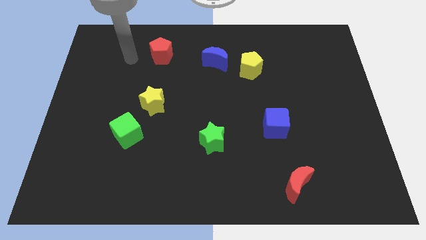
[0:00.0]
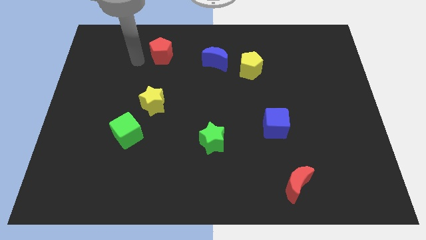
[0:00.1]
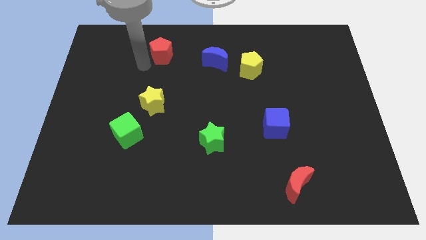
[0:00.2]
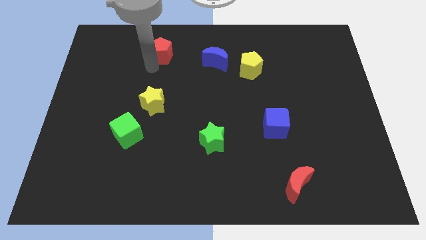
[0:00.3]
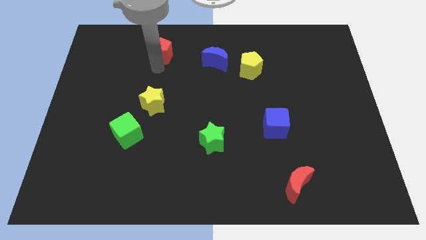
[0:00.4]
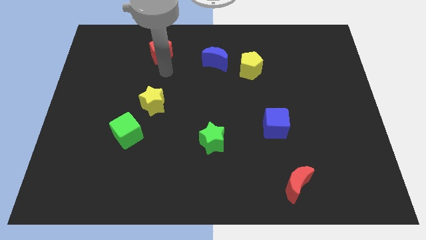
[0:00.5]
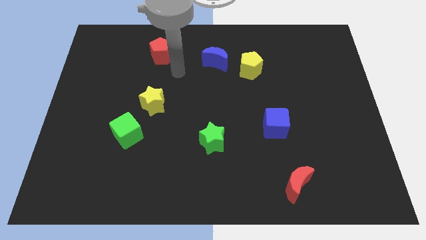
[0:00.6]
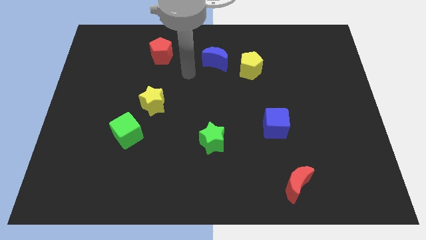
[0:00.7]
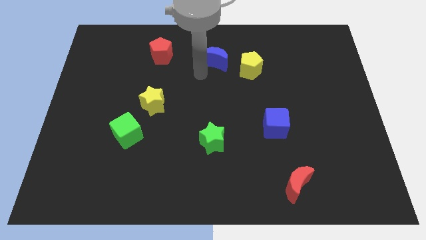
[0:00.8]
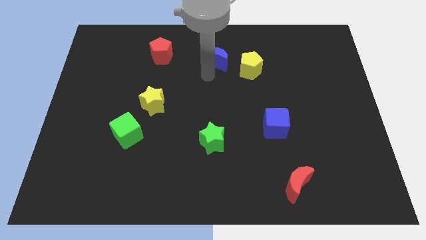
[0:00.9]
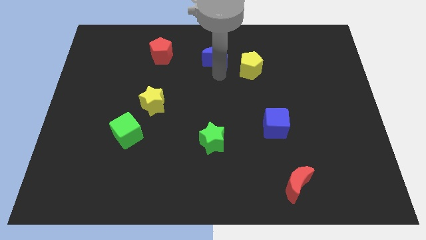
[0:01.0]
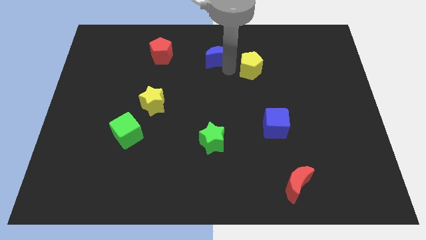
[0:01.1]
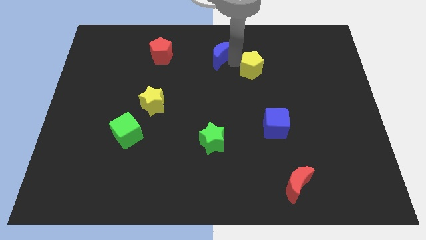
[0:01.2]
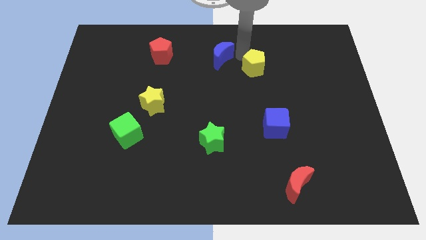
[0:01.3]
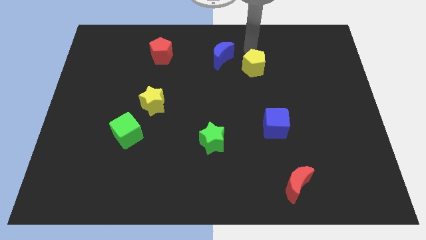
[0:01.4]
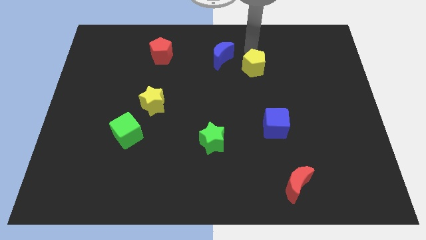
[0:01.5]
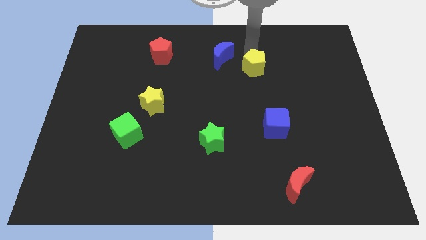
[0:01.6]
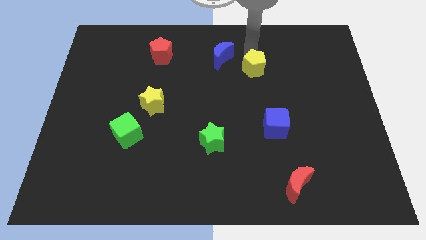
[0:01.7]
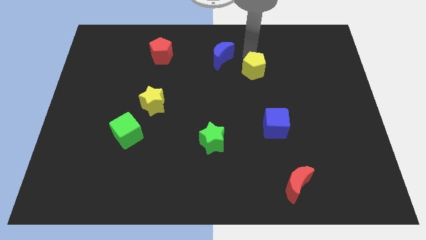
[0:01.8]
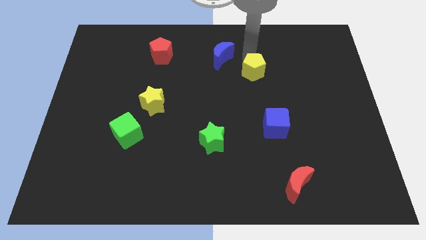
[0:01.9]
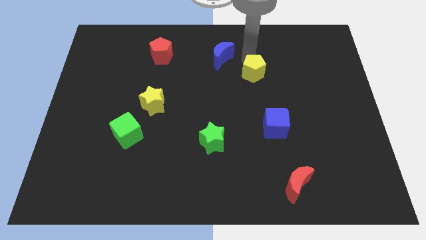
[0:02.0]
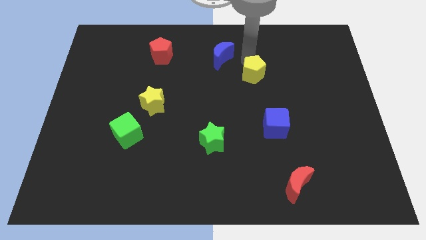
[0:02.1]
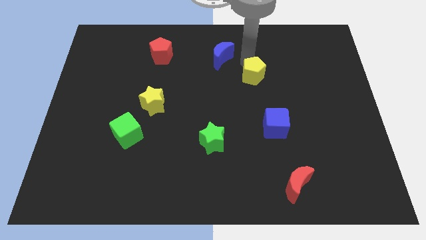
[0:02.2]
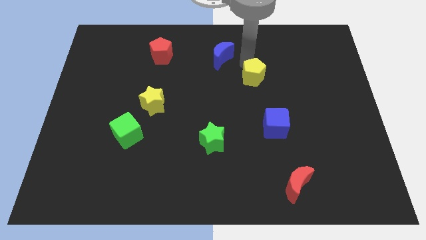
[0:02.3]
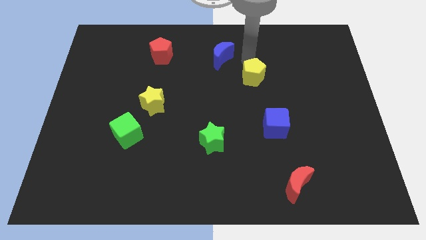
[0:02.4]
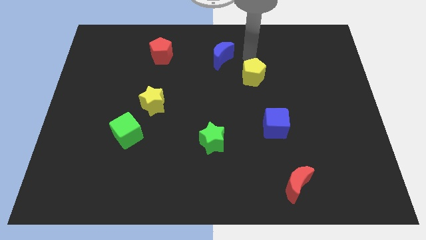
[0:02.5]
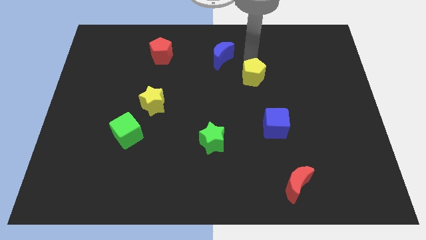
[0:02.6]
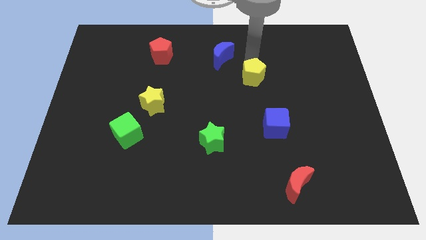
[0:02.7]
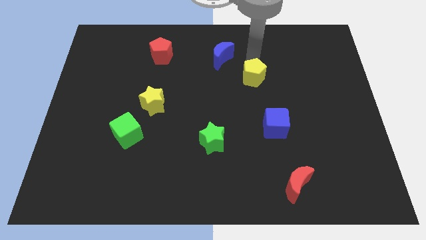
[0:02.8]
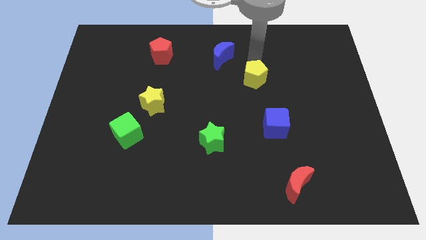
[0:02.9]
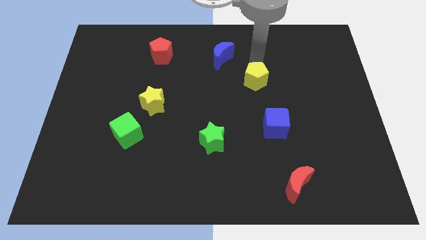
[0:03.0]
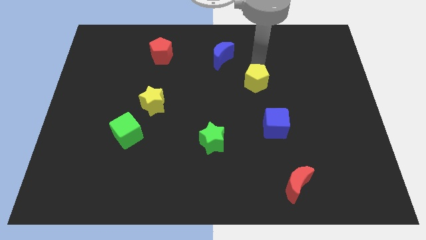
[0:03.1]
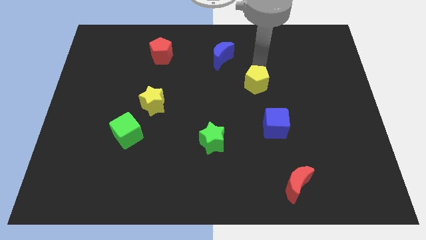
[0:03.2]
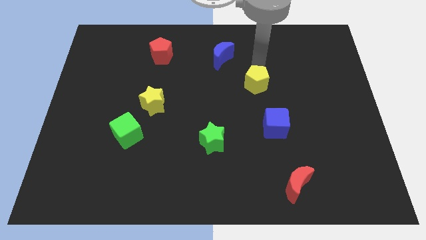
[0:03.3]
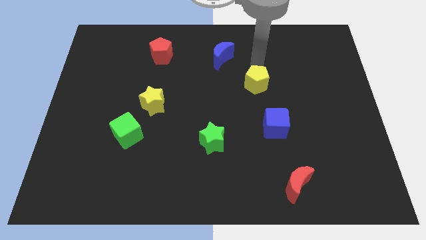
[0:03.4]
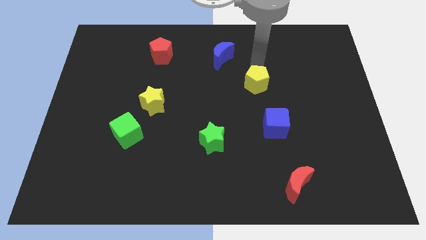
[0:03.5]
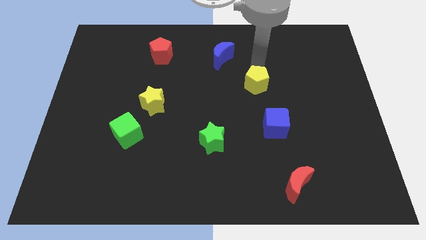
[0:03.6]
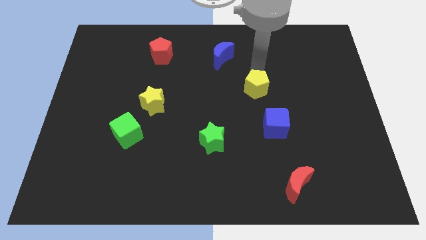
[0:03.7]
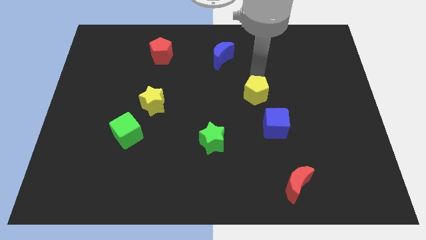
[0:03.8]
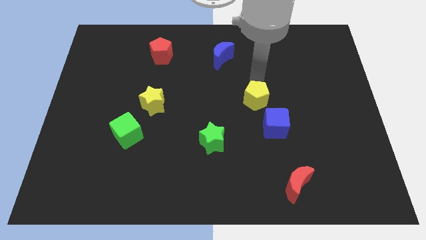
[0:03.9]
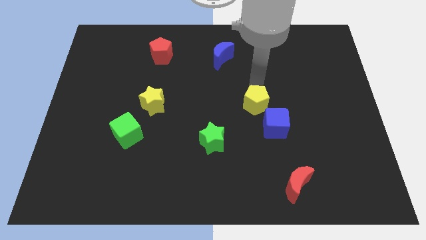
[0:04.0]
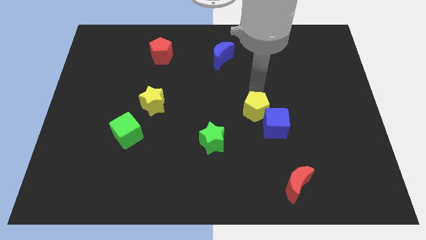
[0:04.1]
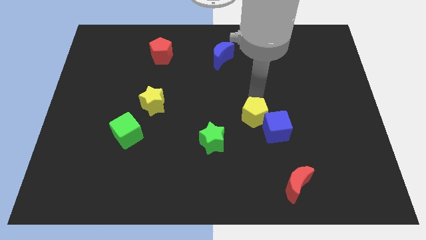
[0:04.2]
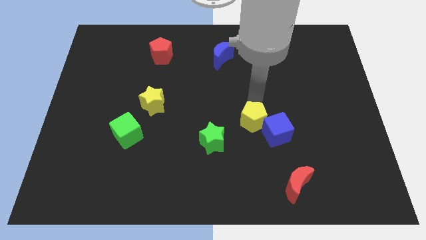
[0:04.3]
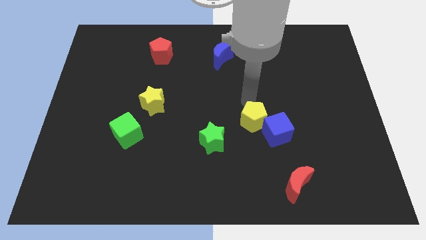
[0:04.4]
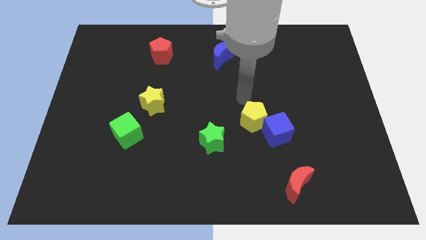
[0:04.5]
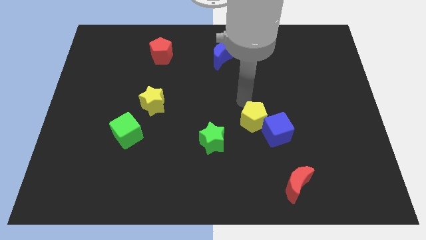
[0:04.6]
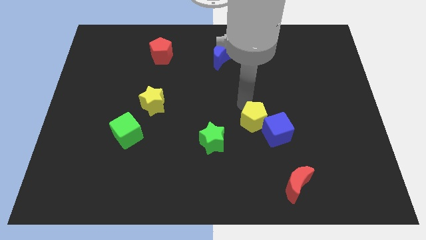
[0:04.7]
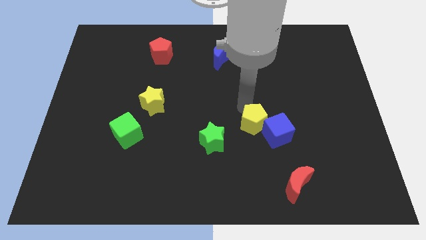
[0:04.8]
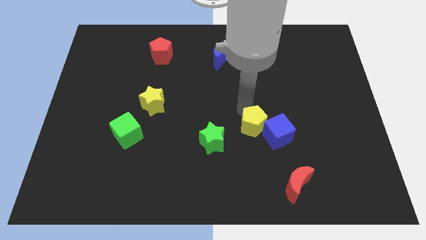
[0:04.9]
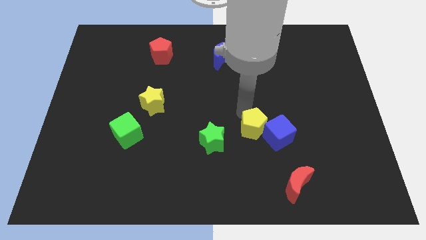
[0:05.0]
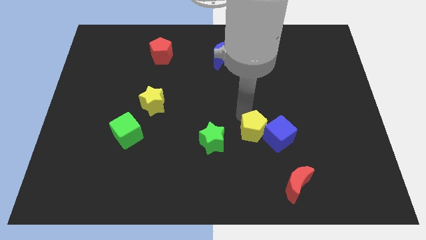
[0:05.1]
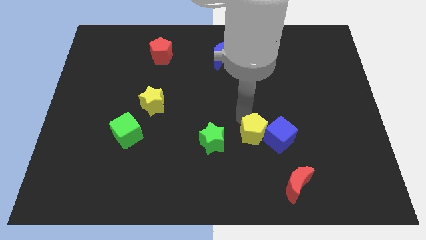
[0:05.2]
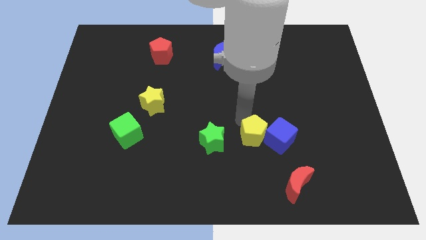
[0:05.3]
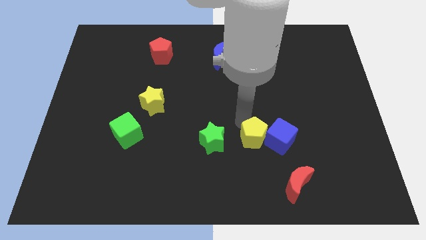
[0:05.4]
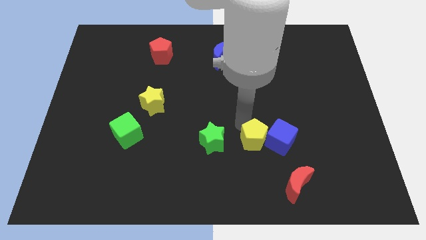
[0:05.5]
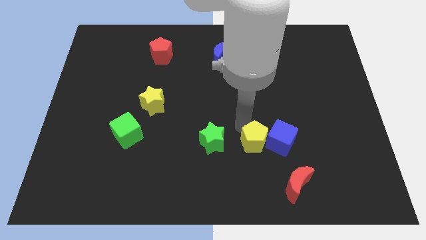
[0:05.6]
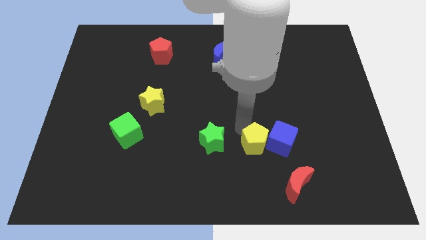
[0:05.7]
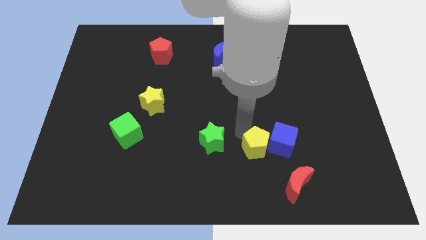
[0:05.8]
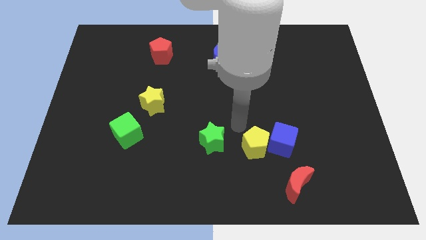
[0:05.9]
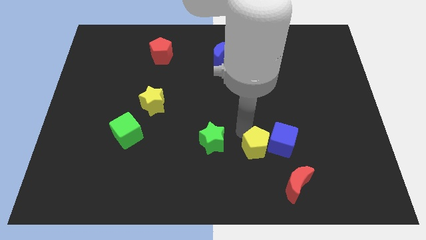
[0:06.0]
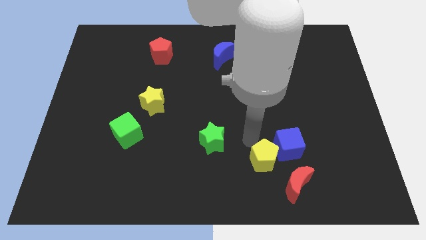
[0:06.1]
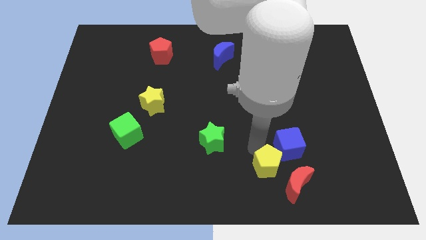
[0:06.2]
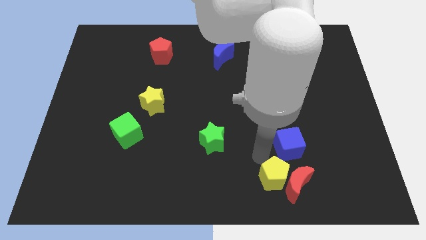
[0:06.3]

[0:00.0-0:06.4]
slide the yellow pentagon below the blue cube

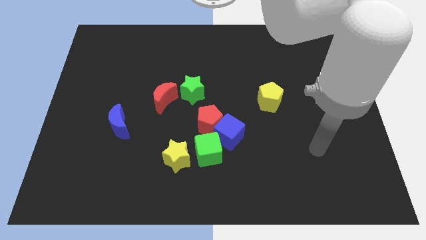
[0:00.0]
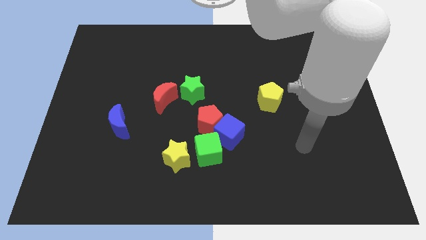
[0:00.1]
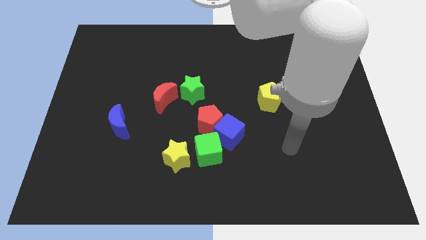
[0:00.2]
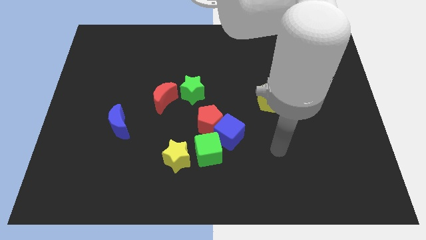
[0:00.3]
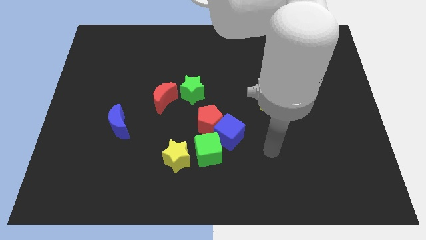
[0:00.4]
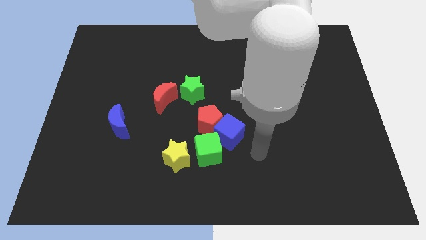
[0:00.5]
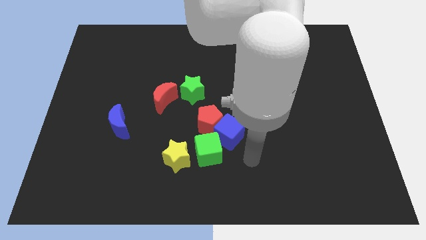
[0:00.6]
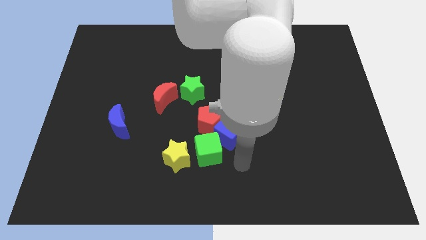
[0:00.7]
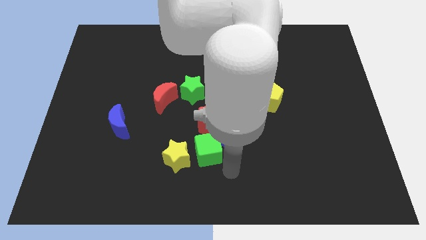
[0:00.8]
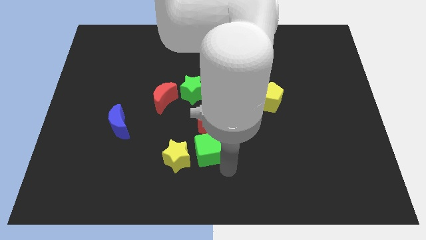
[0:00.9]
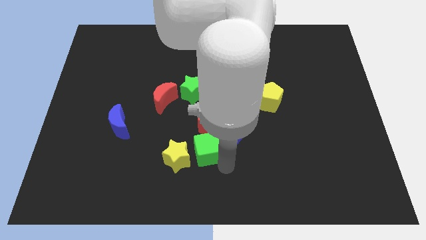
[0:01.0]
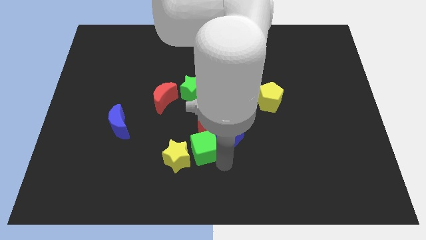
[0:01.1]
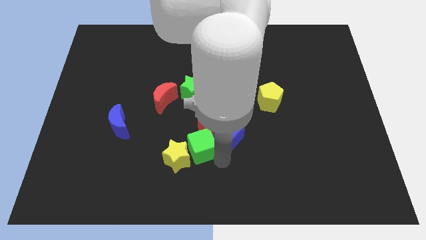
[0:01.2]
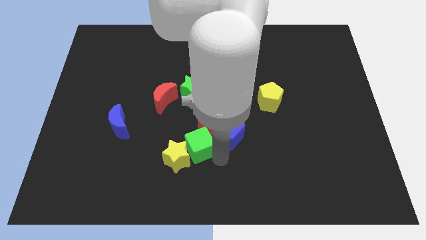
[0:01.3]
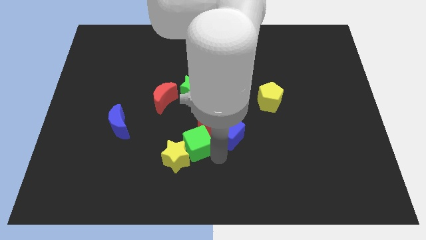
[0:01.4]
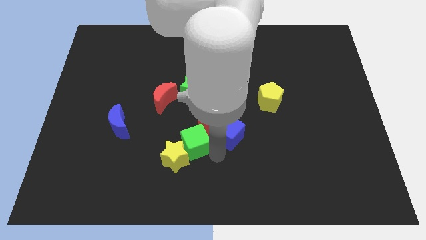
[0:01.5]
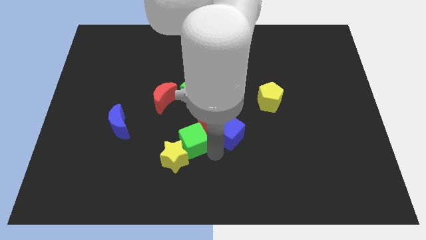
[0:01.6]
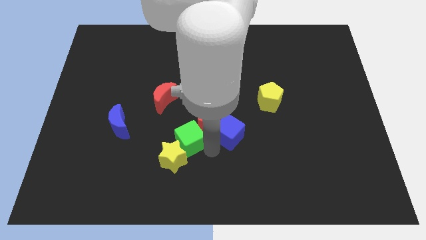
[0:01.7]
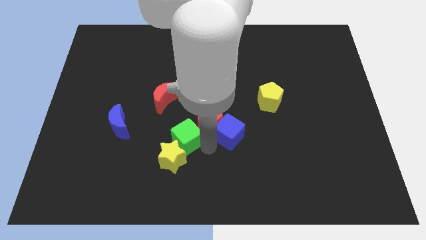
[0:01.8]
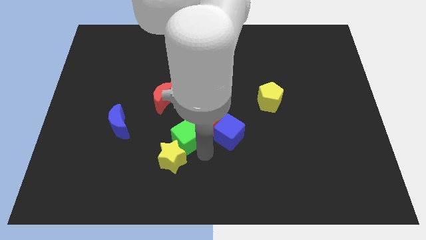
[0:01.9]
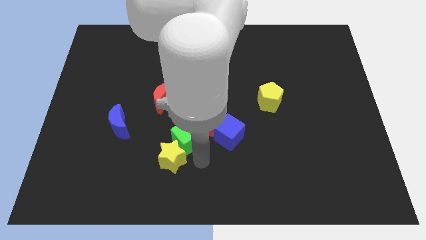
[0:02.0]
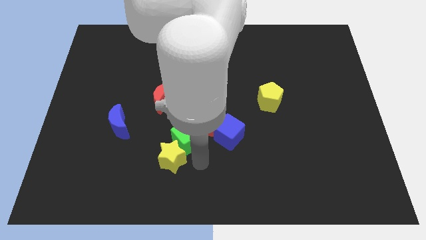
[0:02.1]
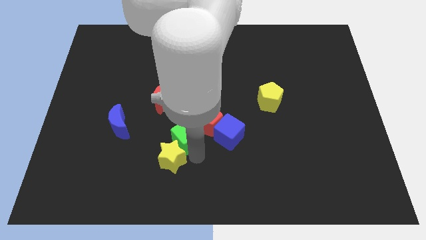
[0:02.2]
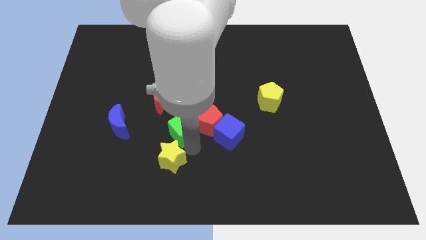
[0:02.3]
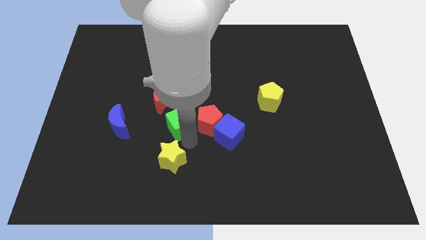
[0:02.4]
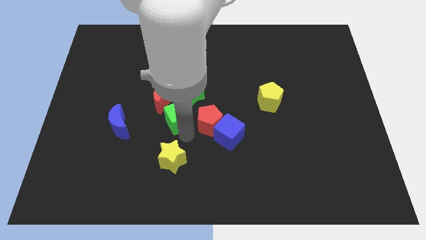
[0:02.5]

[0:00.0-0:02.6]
put the green cube to the bottom left side of the green star
